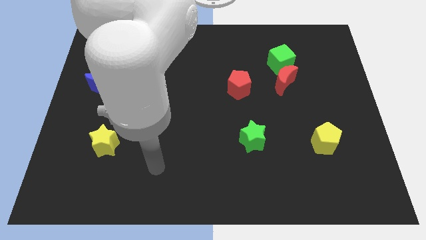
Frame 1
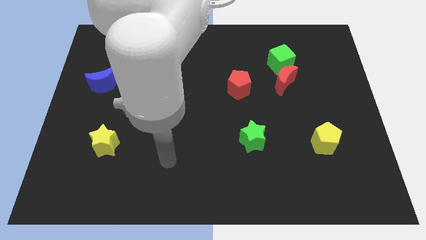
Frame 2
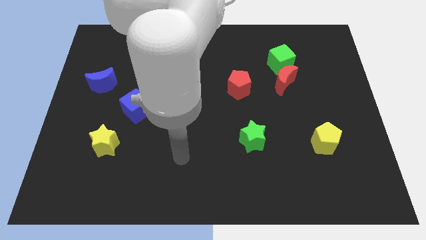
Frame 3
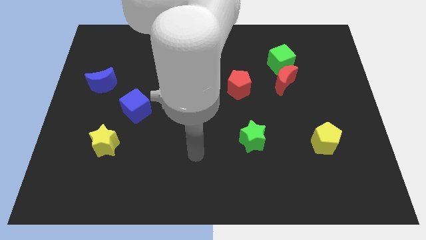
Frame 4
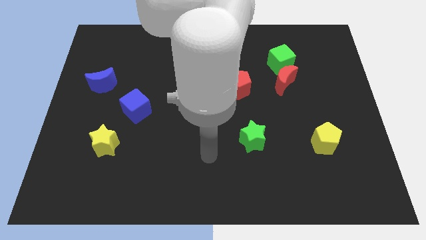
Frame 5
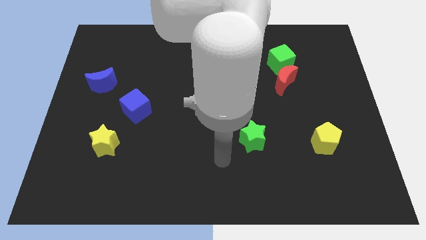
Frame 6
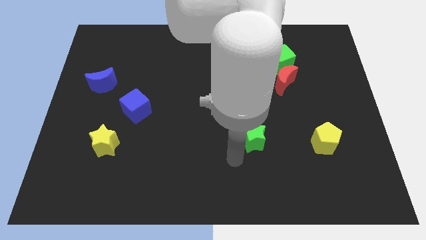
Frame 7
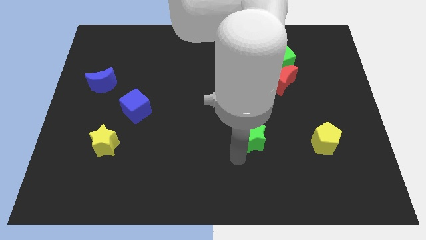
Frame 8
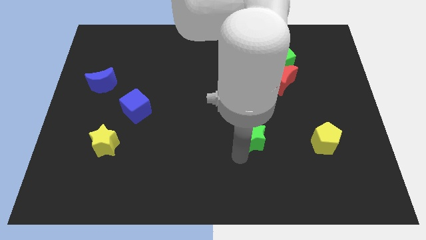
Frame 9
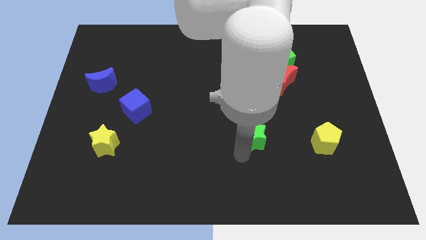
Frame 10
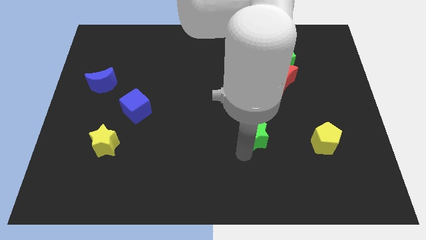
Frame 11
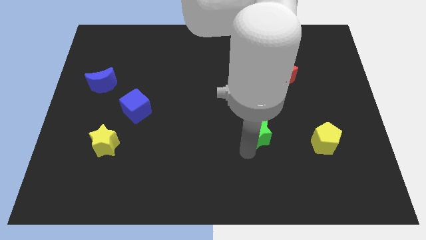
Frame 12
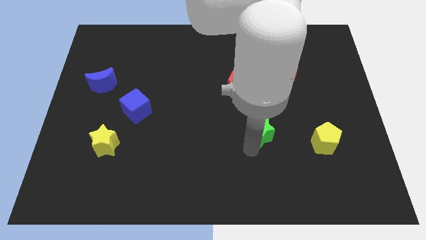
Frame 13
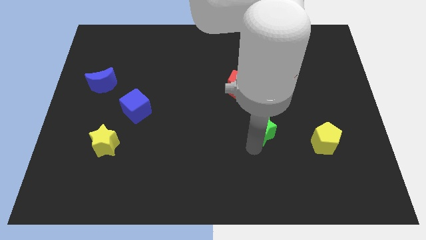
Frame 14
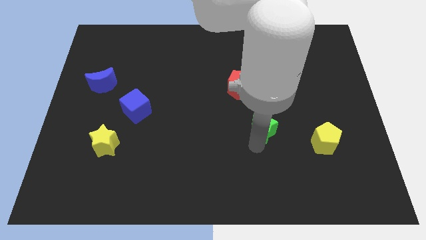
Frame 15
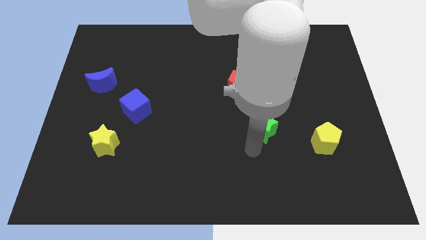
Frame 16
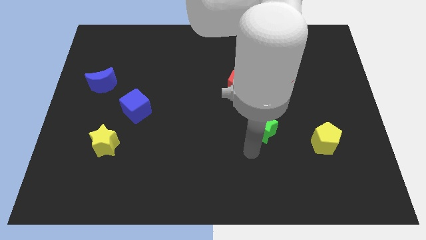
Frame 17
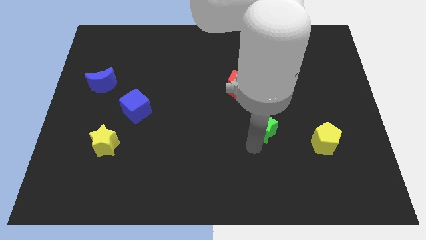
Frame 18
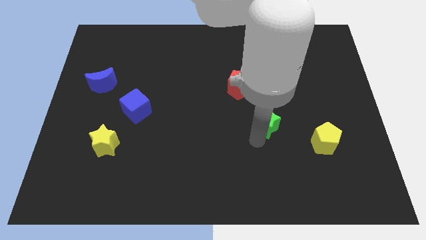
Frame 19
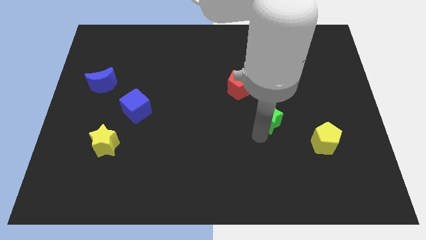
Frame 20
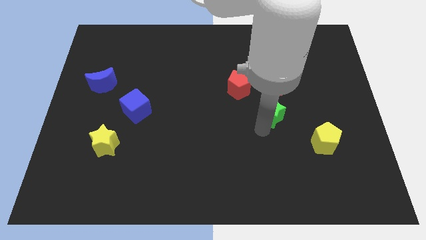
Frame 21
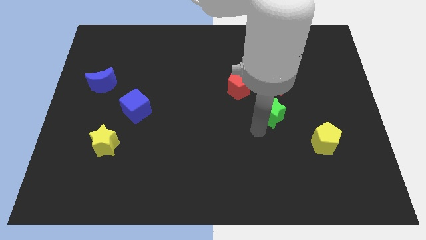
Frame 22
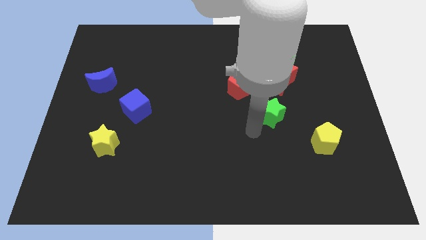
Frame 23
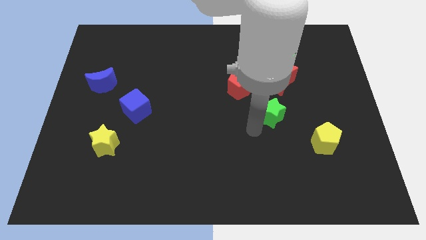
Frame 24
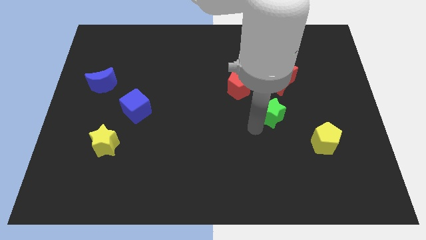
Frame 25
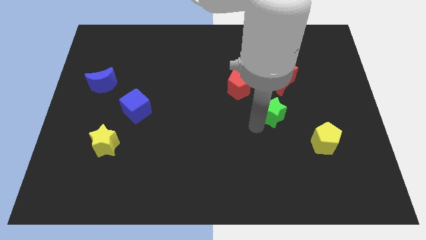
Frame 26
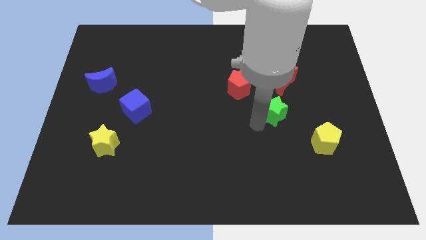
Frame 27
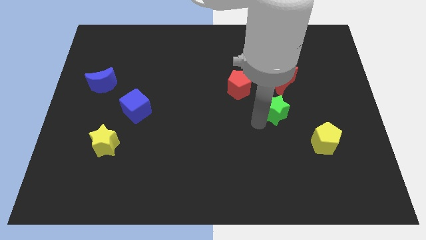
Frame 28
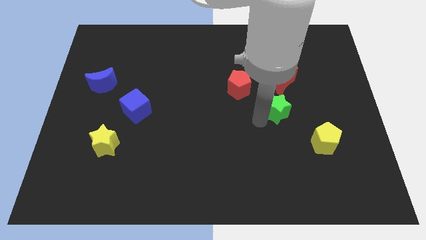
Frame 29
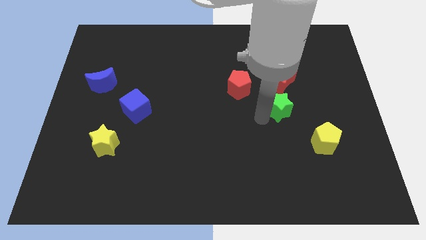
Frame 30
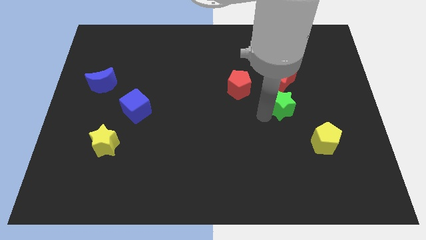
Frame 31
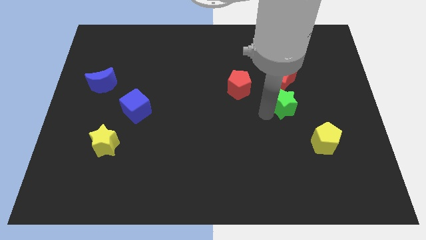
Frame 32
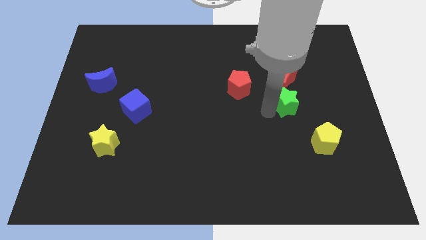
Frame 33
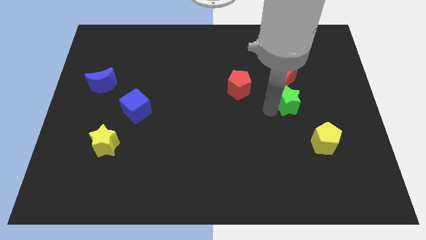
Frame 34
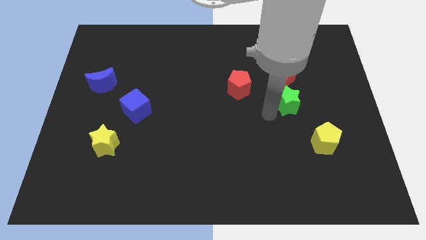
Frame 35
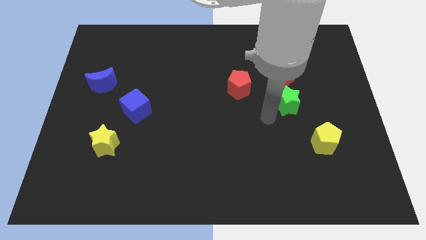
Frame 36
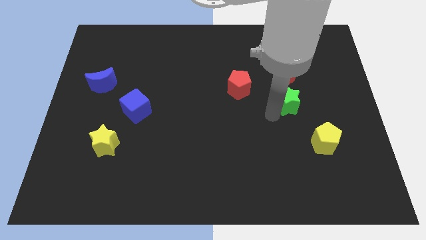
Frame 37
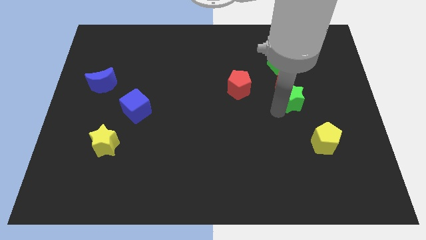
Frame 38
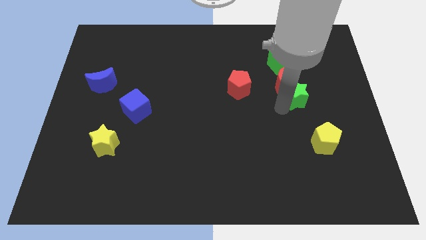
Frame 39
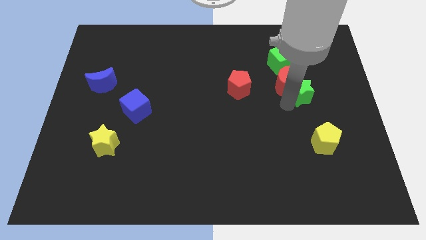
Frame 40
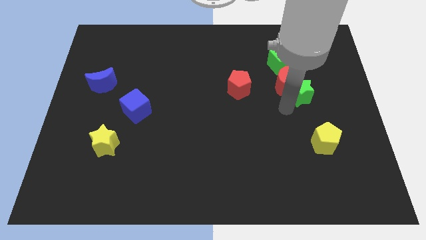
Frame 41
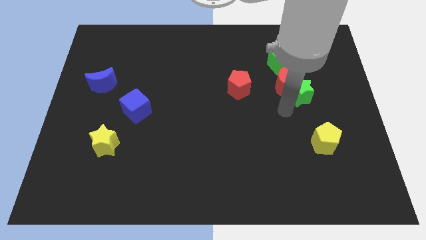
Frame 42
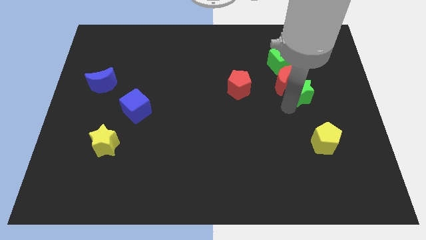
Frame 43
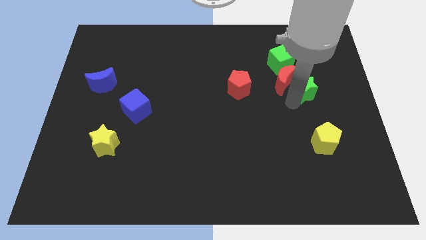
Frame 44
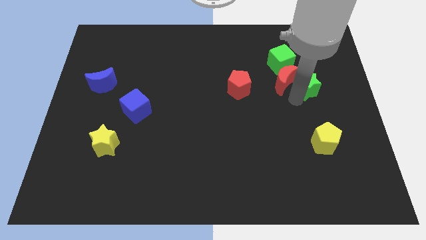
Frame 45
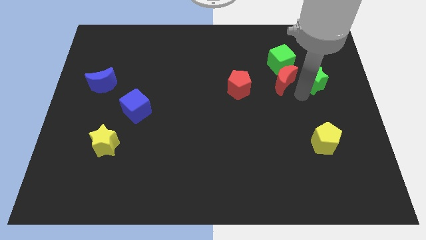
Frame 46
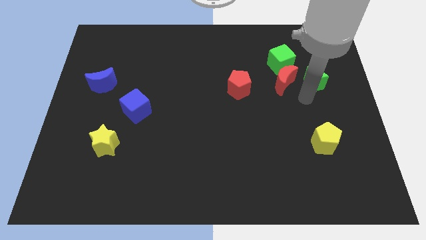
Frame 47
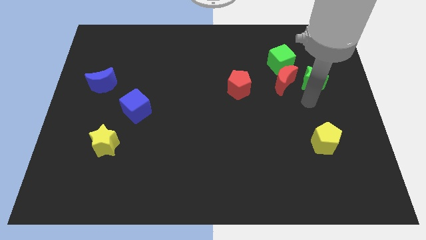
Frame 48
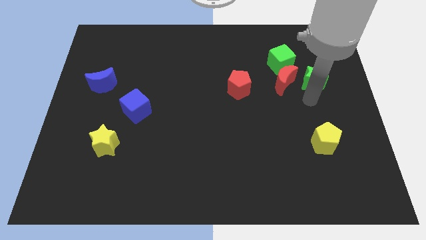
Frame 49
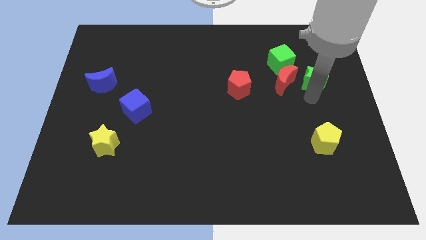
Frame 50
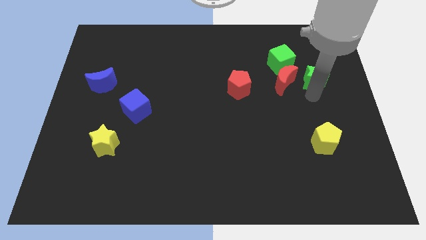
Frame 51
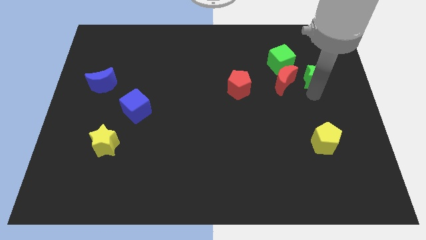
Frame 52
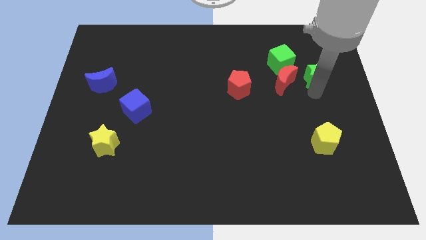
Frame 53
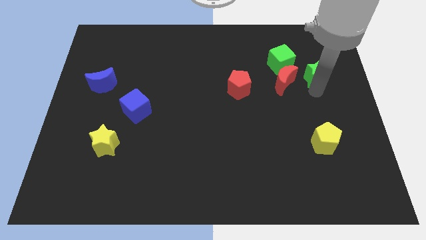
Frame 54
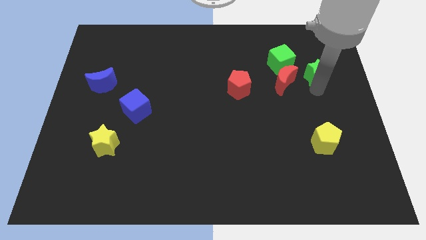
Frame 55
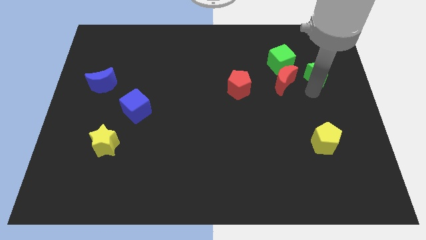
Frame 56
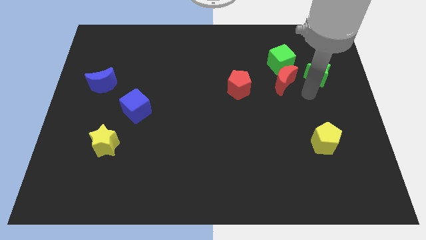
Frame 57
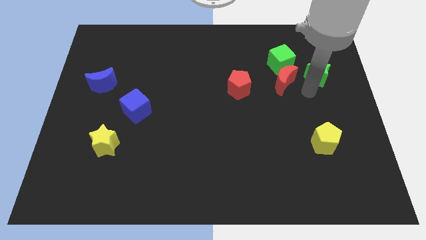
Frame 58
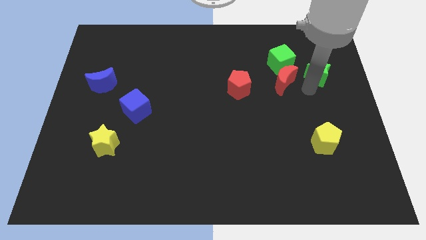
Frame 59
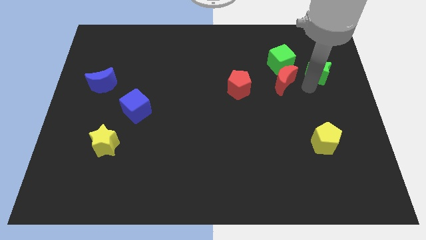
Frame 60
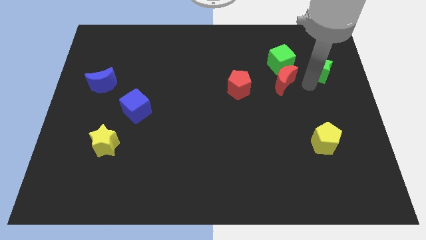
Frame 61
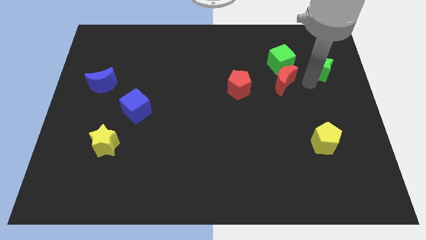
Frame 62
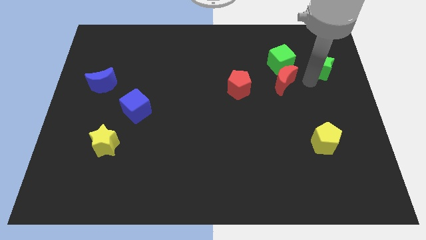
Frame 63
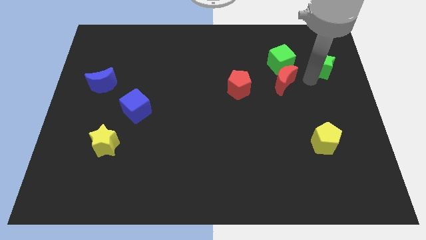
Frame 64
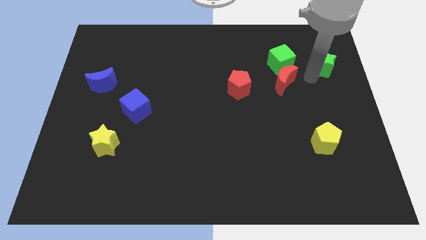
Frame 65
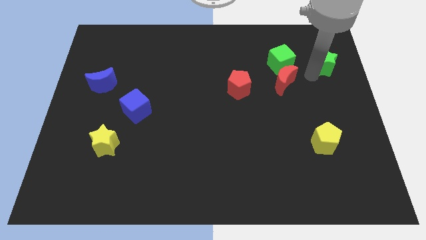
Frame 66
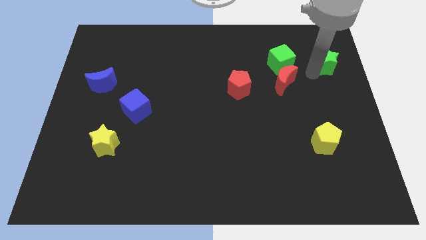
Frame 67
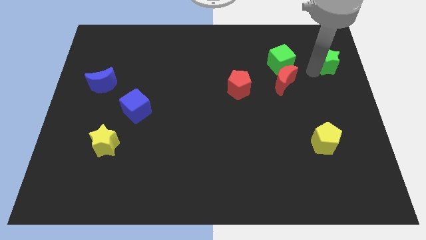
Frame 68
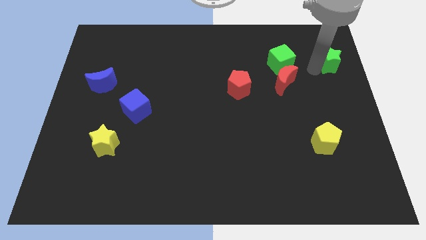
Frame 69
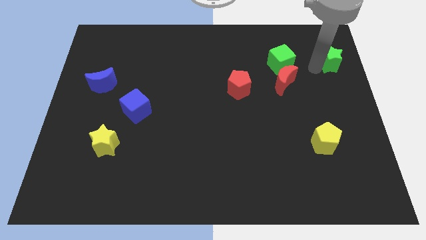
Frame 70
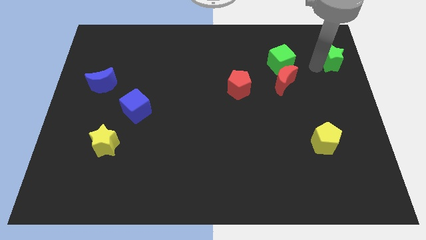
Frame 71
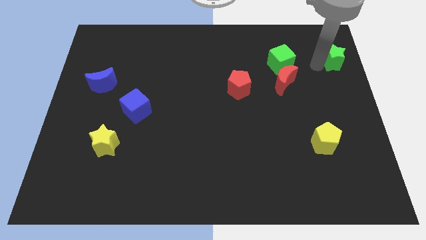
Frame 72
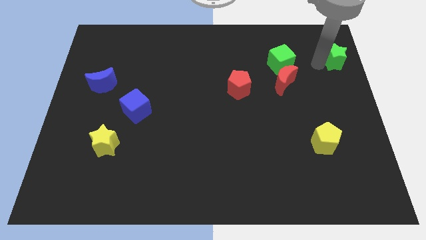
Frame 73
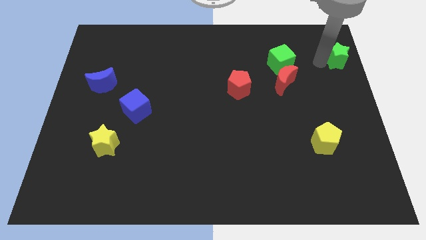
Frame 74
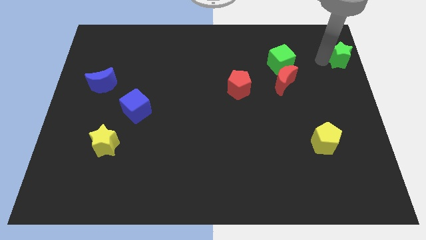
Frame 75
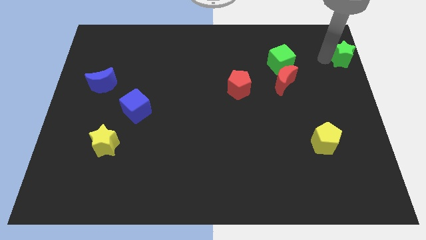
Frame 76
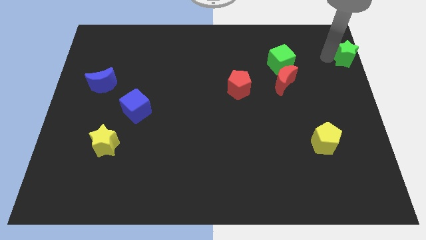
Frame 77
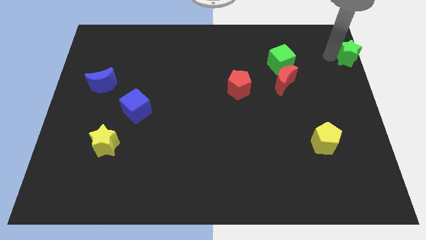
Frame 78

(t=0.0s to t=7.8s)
slide the green star to the top right corner
